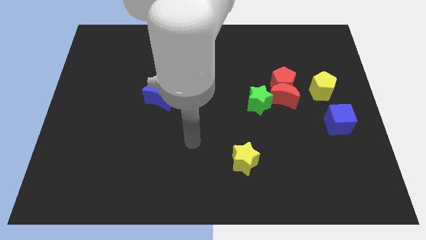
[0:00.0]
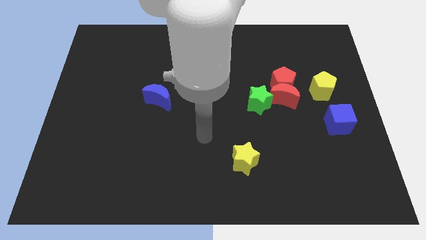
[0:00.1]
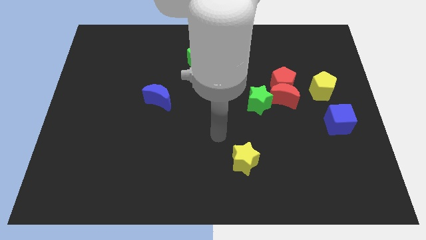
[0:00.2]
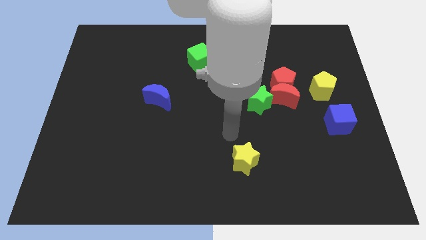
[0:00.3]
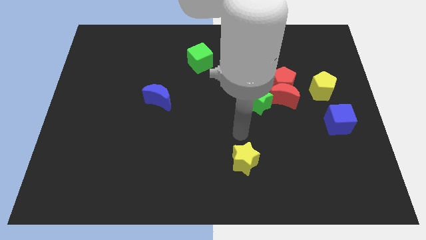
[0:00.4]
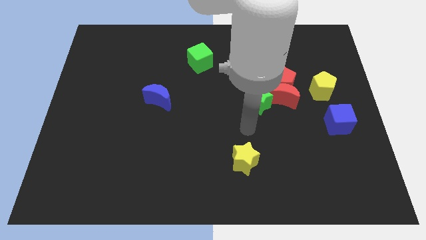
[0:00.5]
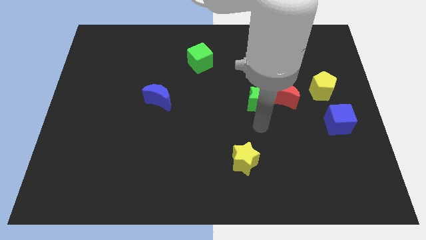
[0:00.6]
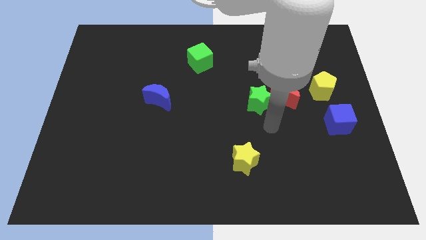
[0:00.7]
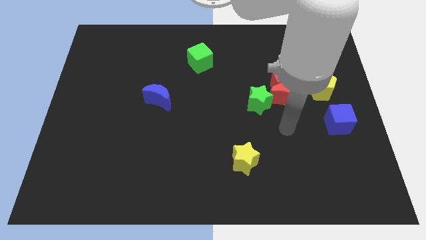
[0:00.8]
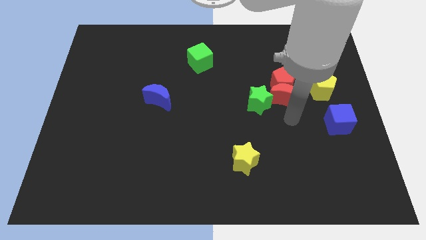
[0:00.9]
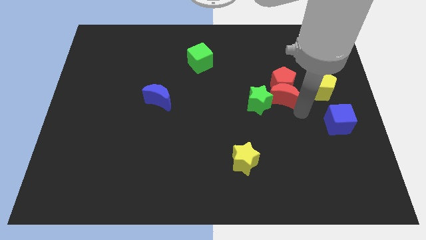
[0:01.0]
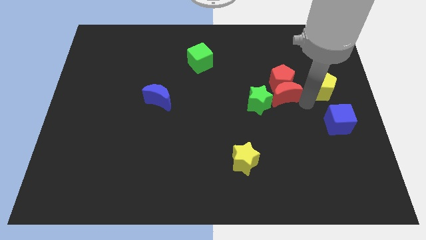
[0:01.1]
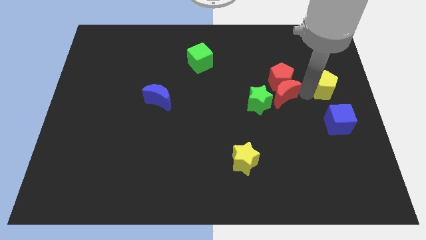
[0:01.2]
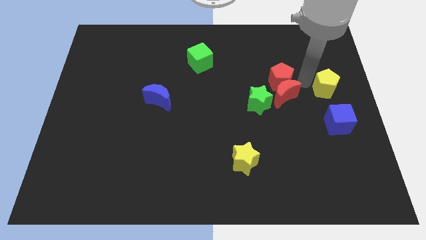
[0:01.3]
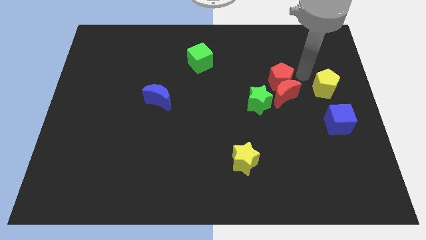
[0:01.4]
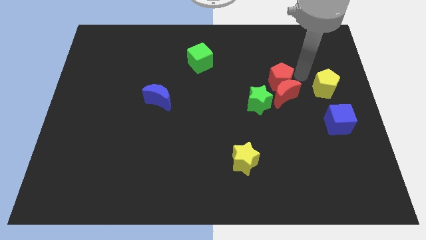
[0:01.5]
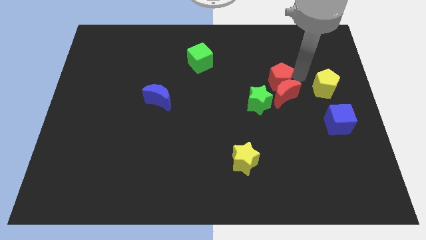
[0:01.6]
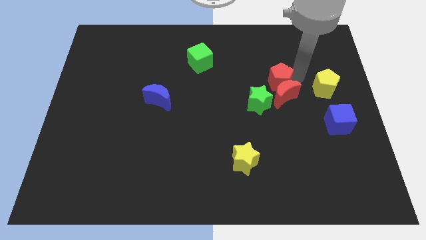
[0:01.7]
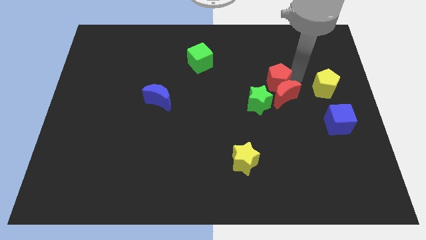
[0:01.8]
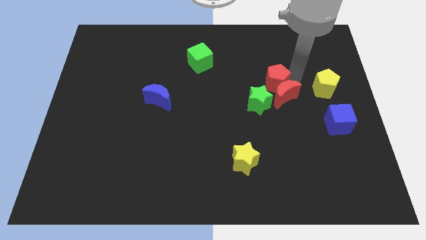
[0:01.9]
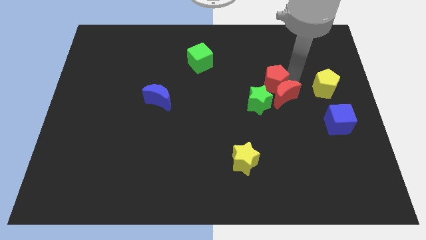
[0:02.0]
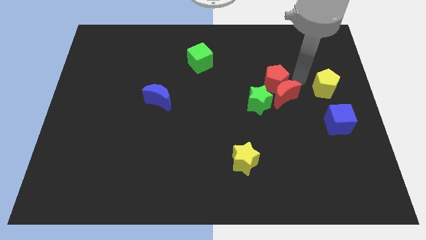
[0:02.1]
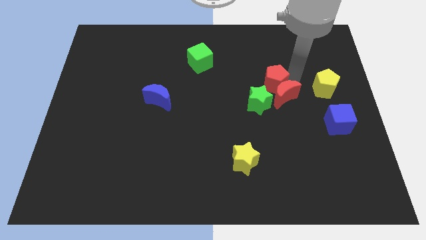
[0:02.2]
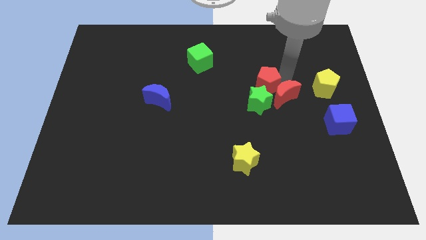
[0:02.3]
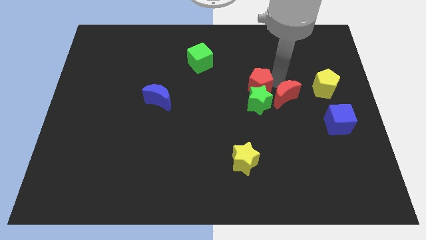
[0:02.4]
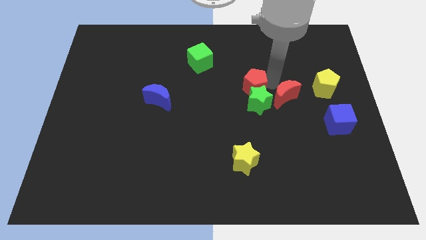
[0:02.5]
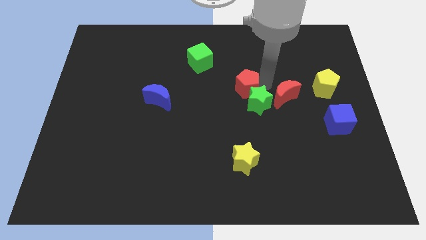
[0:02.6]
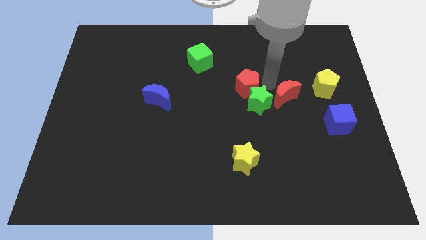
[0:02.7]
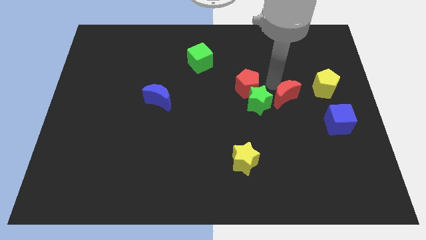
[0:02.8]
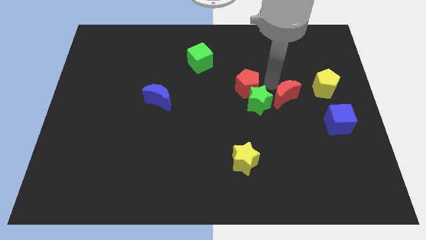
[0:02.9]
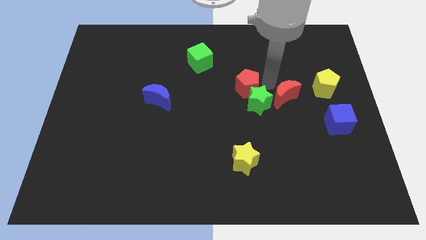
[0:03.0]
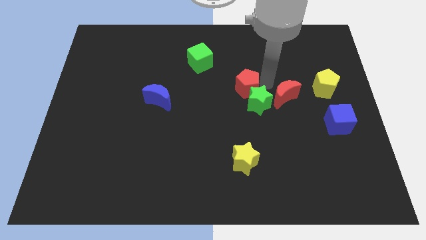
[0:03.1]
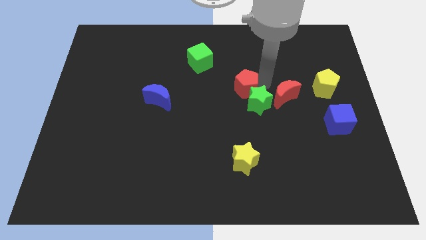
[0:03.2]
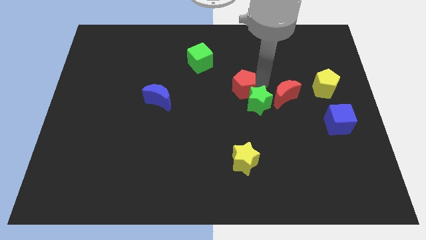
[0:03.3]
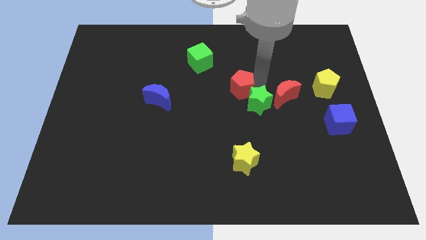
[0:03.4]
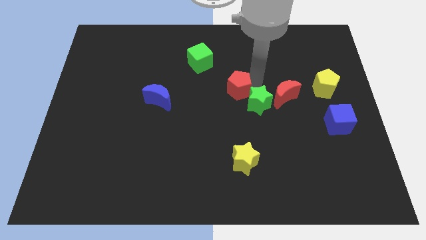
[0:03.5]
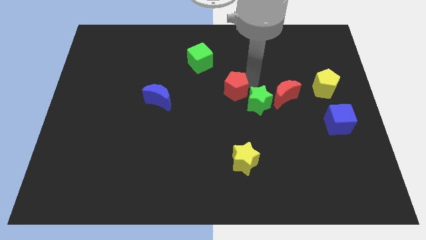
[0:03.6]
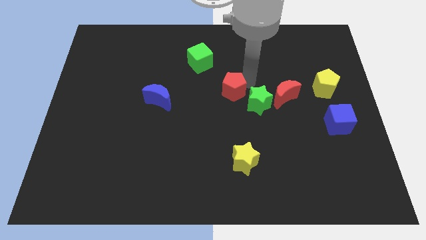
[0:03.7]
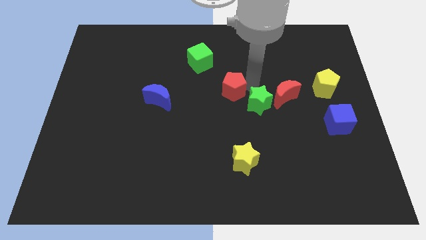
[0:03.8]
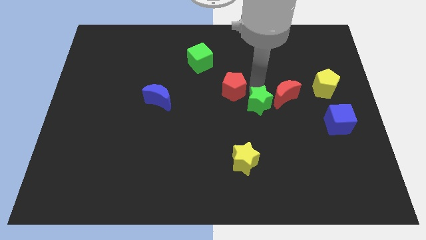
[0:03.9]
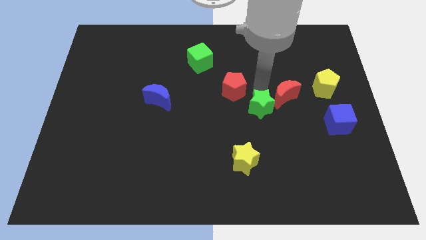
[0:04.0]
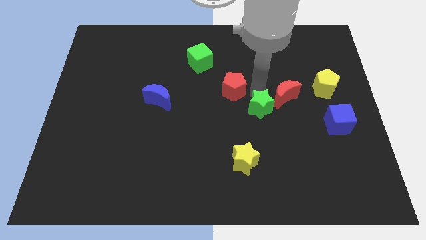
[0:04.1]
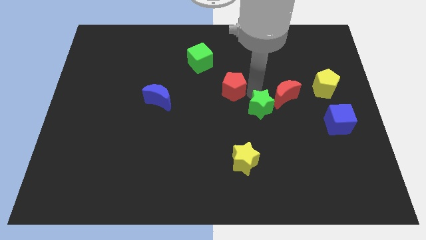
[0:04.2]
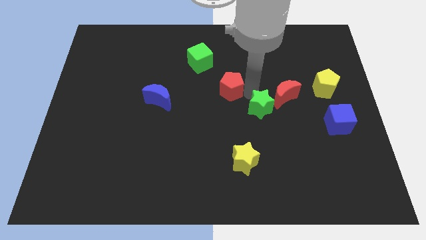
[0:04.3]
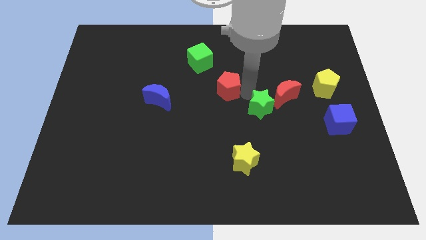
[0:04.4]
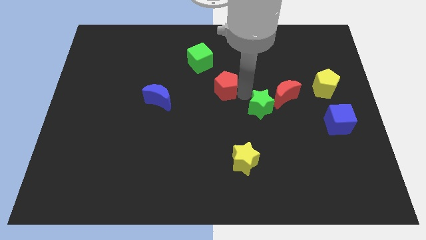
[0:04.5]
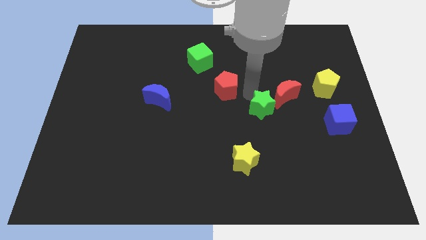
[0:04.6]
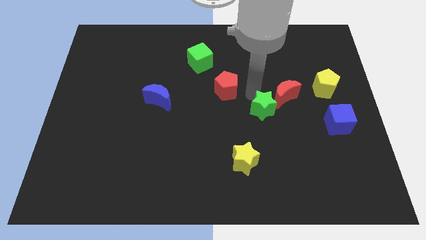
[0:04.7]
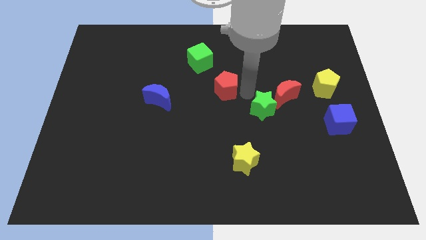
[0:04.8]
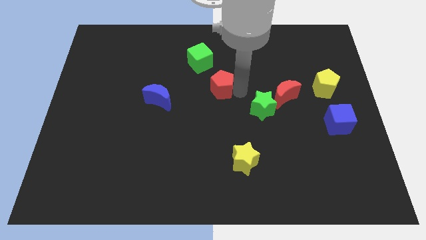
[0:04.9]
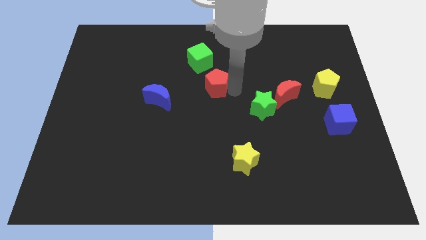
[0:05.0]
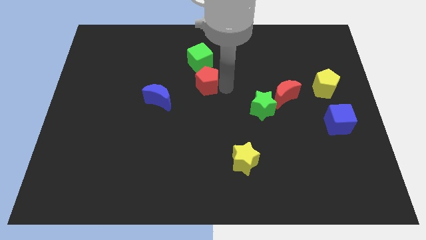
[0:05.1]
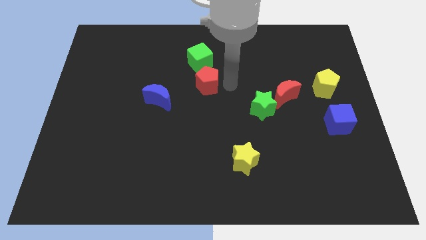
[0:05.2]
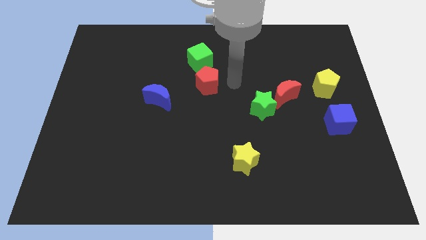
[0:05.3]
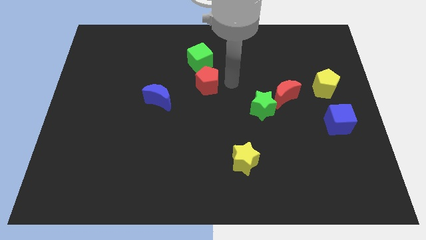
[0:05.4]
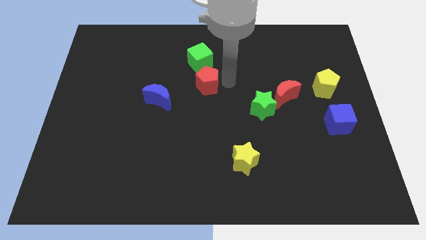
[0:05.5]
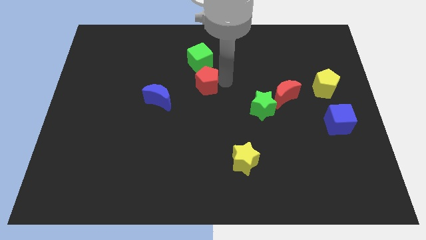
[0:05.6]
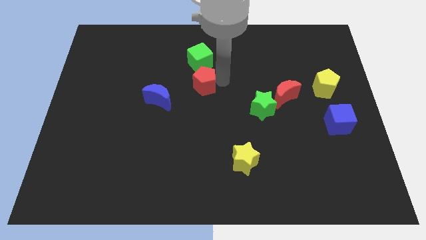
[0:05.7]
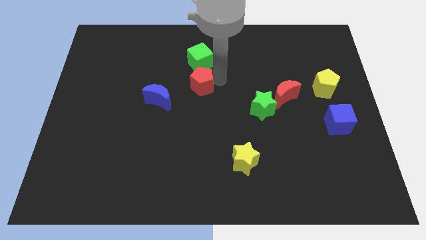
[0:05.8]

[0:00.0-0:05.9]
move the red pentagon left

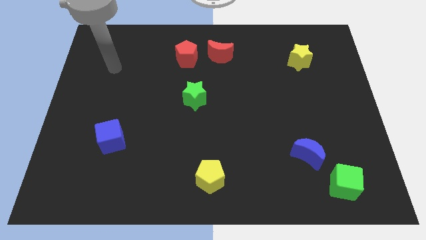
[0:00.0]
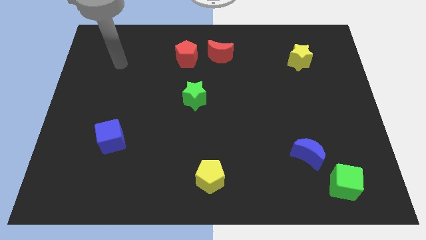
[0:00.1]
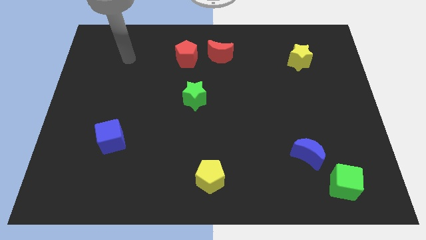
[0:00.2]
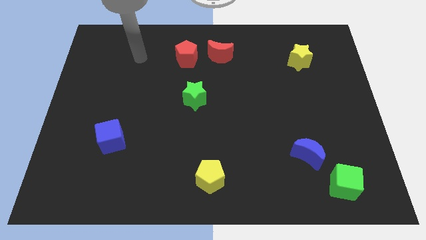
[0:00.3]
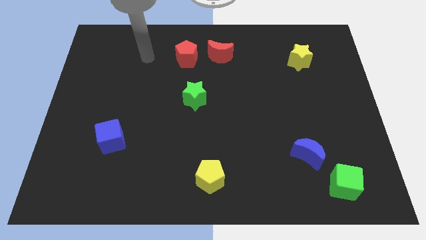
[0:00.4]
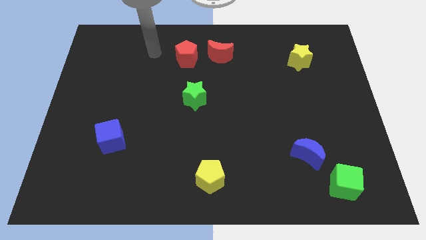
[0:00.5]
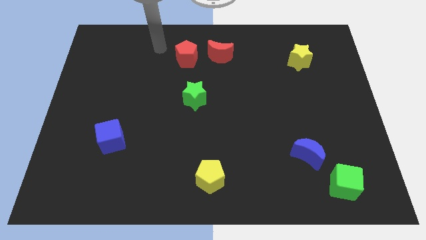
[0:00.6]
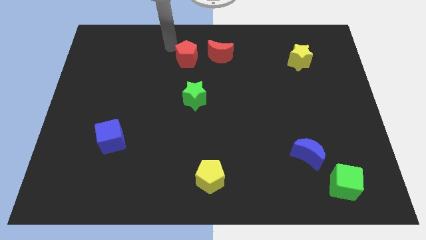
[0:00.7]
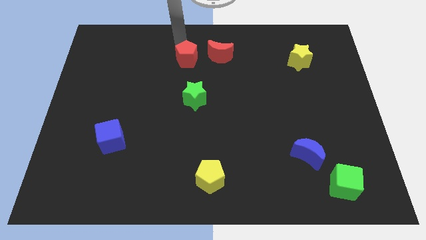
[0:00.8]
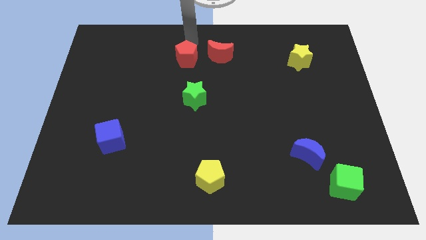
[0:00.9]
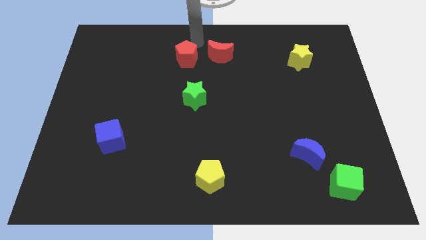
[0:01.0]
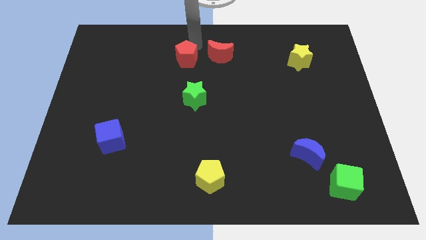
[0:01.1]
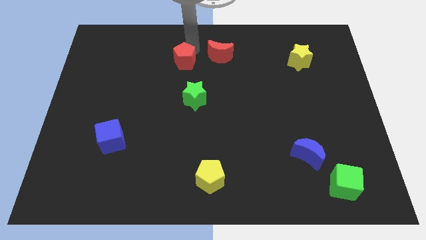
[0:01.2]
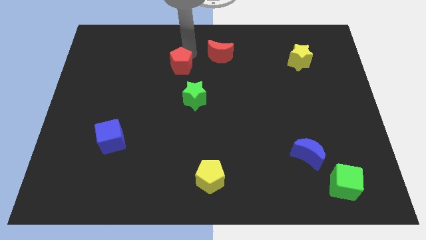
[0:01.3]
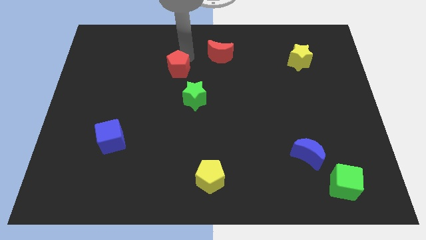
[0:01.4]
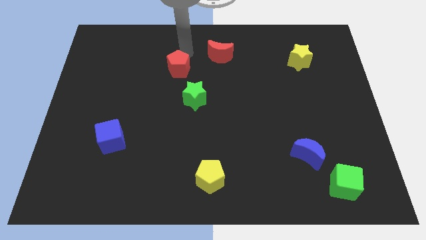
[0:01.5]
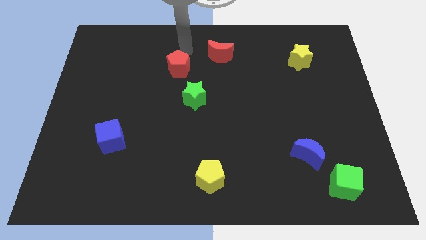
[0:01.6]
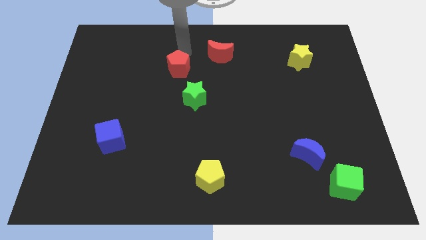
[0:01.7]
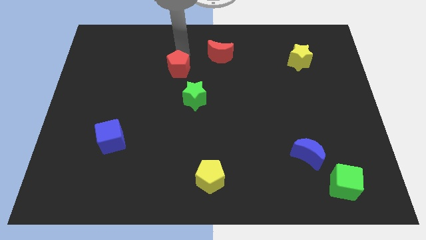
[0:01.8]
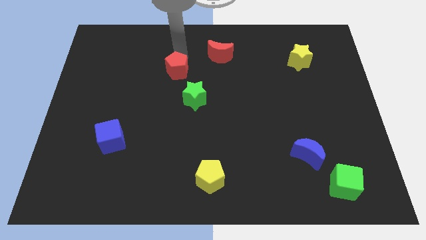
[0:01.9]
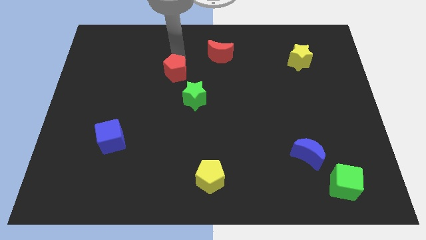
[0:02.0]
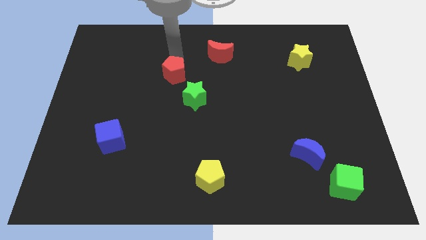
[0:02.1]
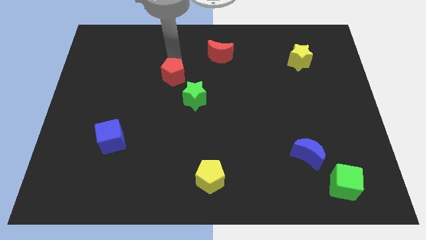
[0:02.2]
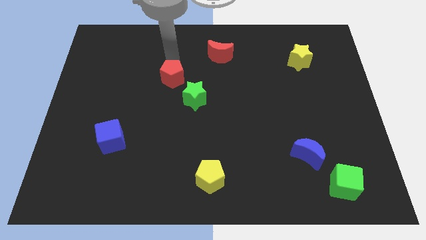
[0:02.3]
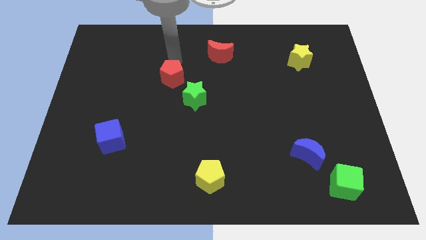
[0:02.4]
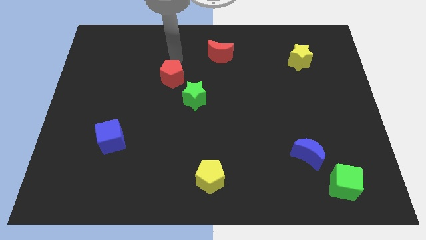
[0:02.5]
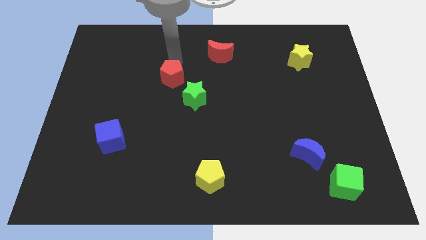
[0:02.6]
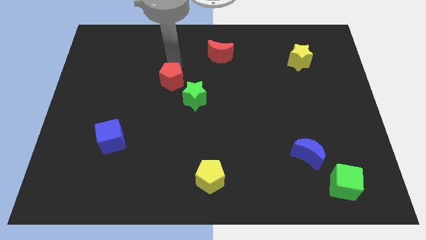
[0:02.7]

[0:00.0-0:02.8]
slightly slide the red pentagon down
